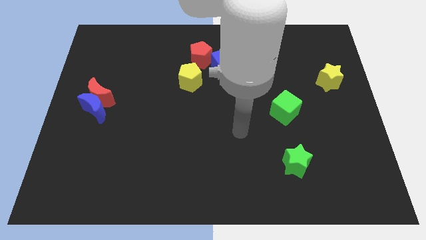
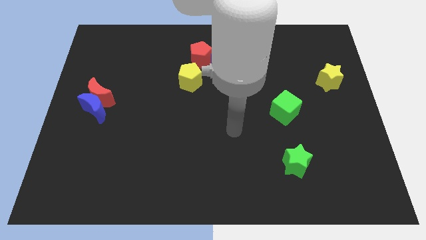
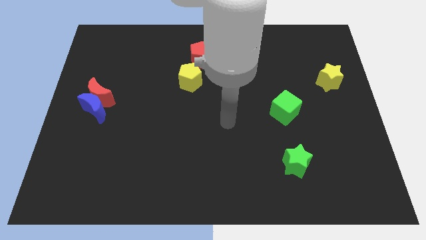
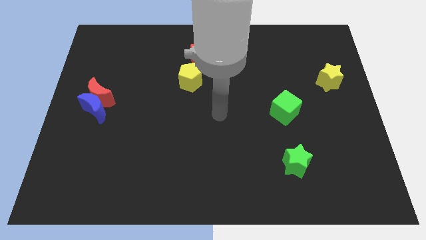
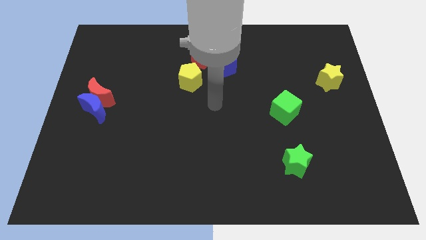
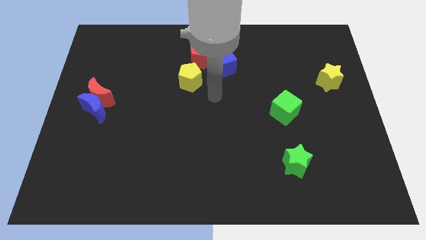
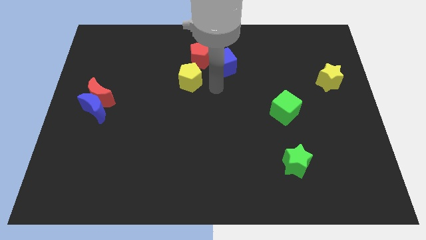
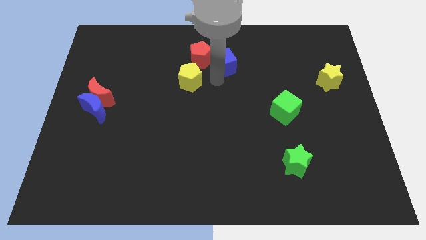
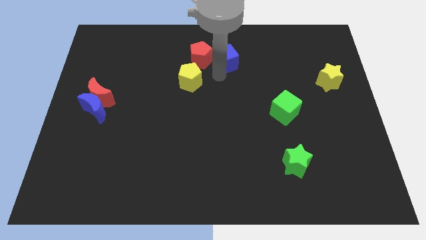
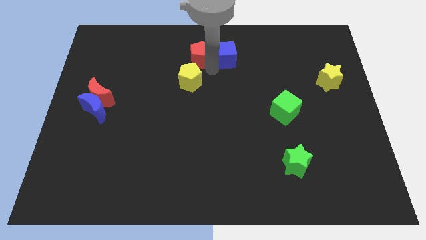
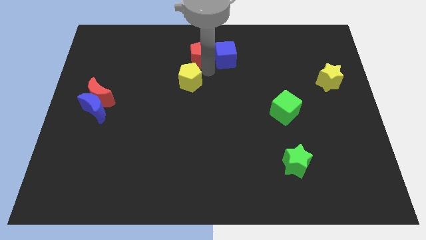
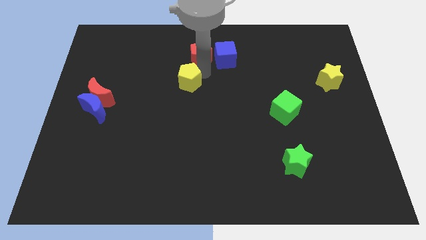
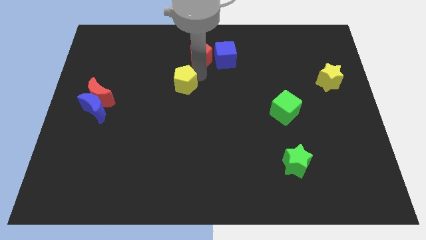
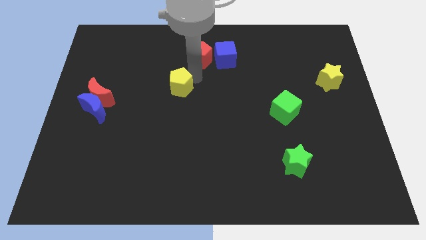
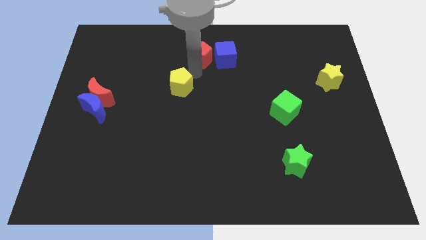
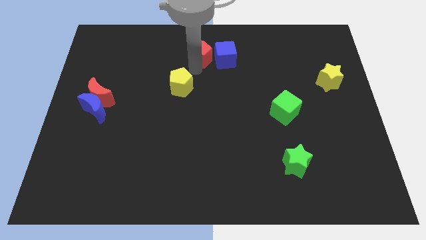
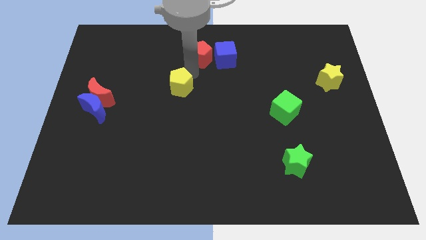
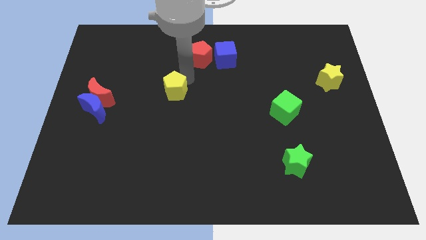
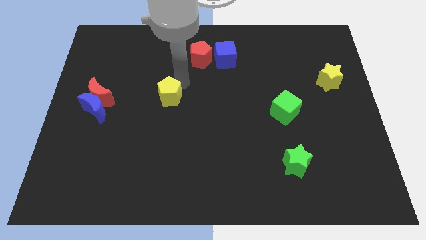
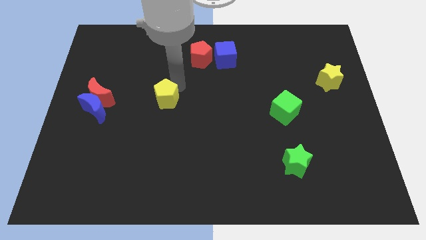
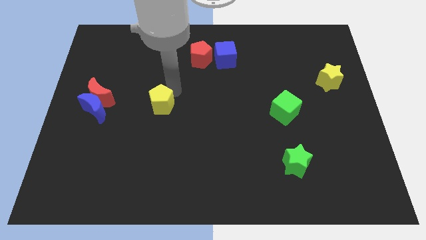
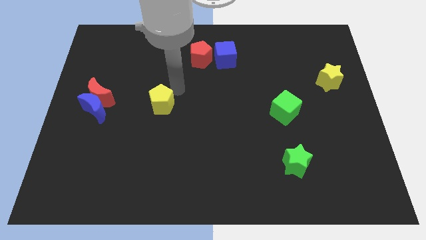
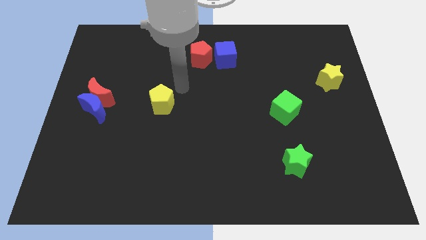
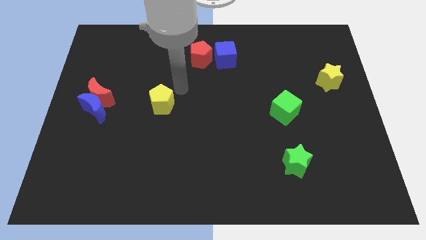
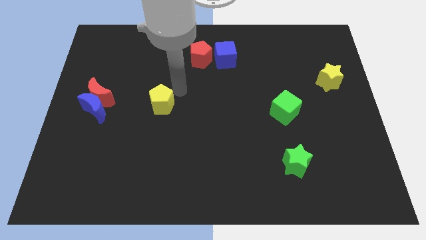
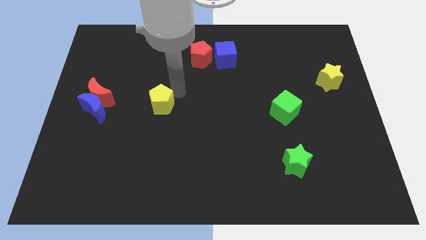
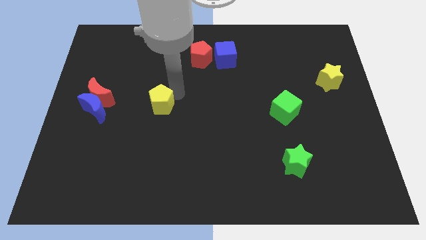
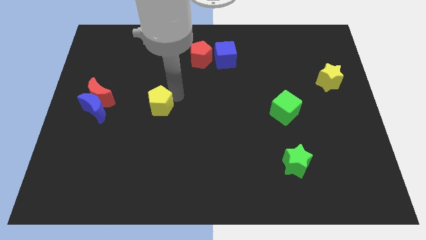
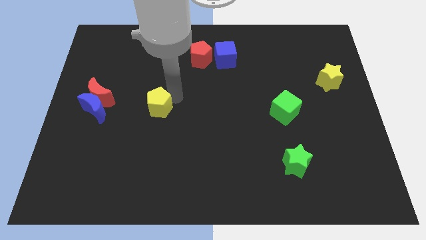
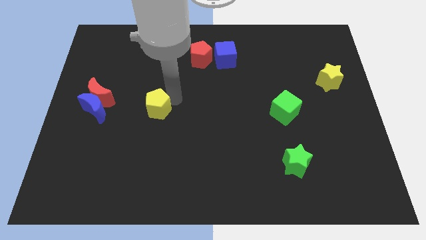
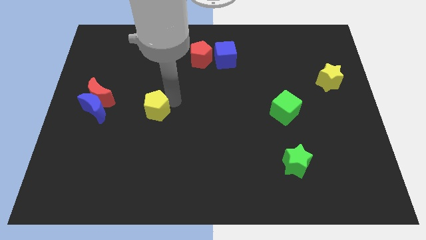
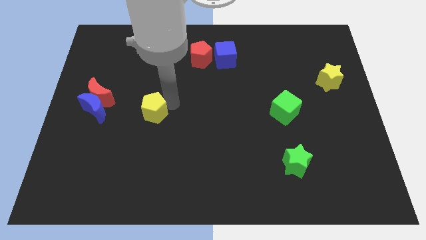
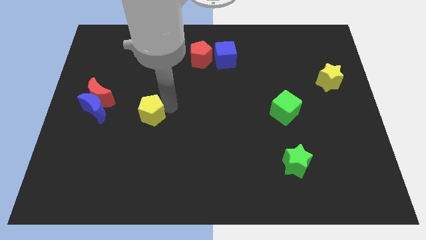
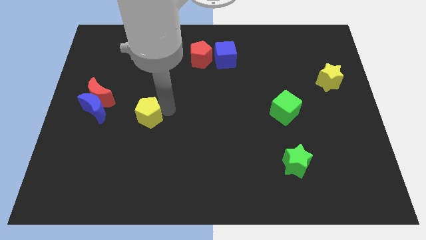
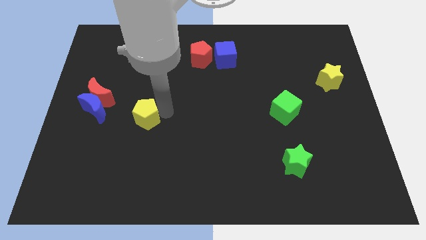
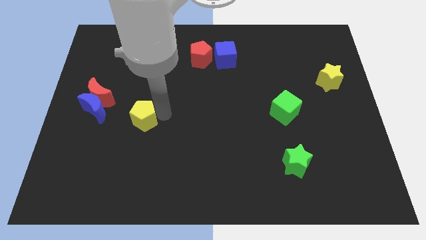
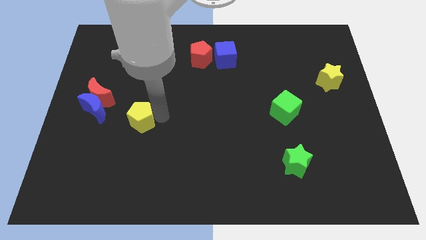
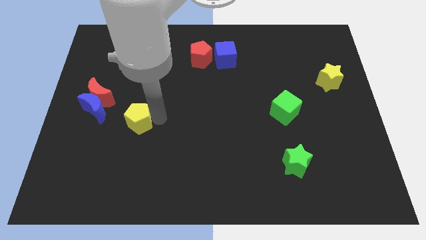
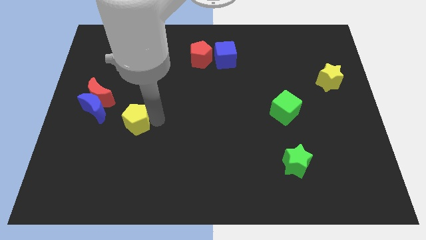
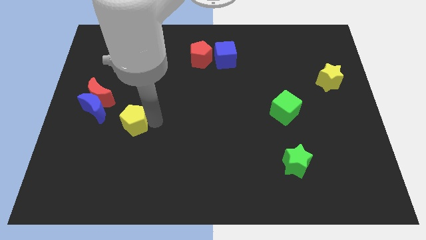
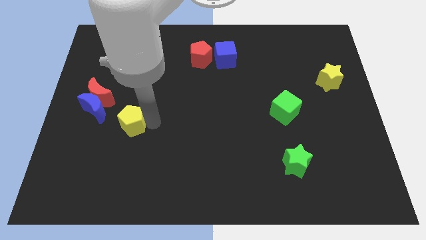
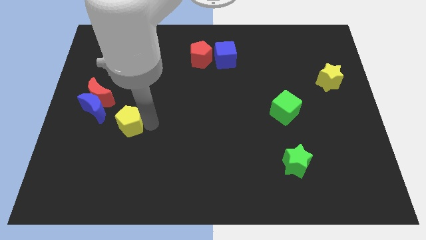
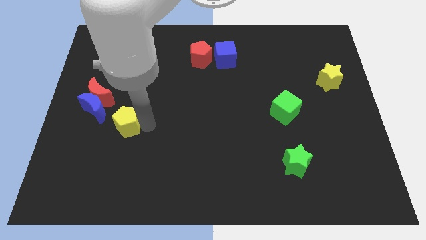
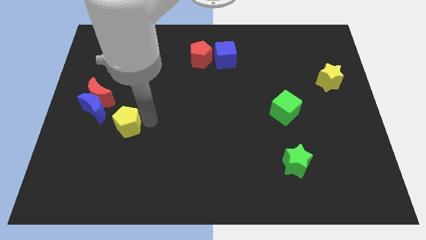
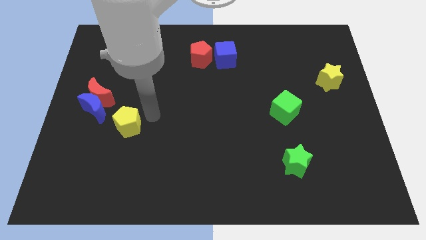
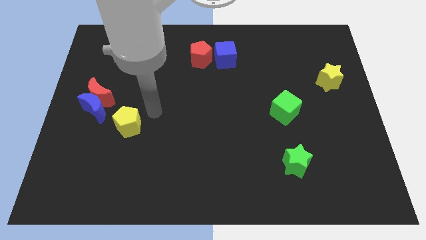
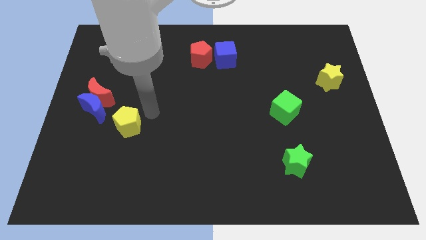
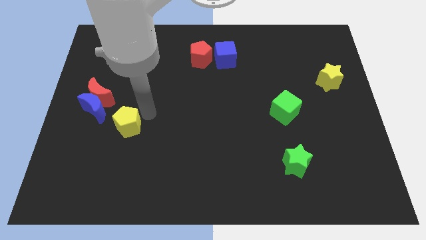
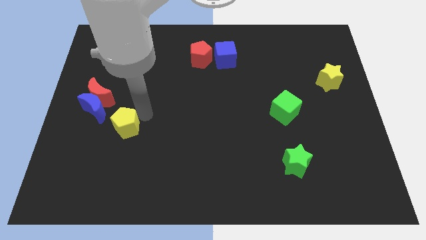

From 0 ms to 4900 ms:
move the yellow pentagon diagonally down and to the left

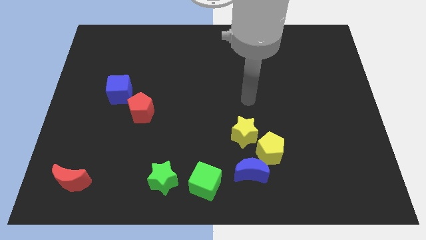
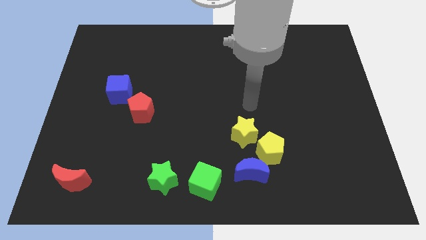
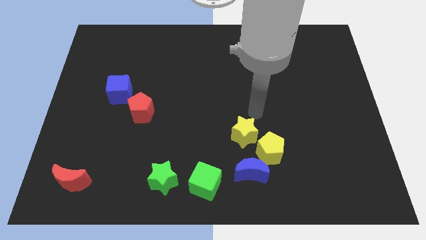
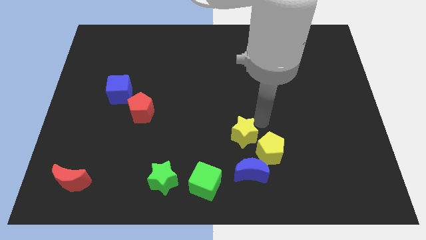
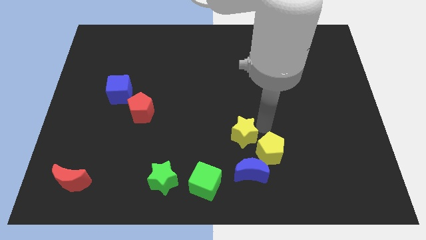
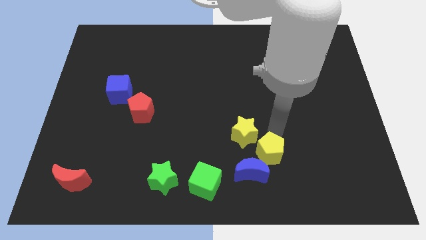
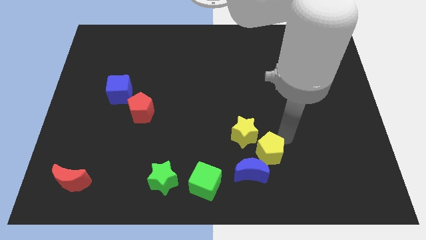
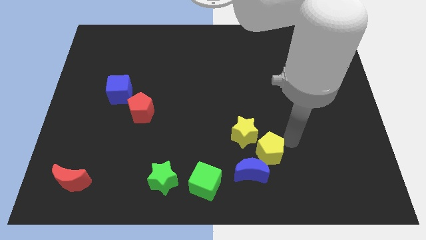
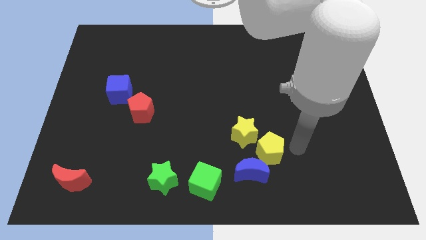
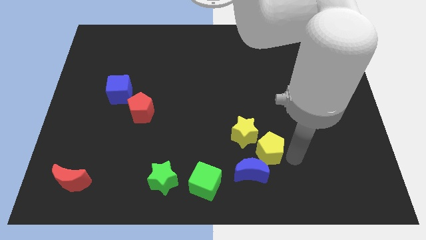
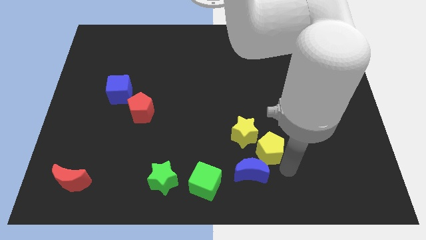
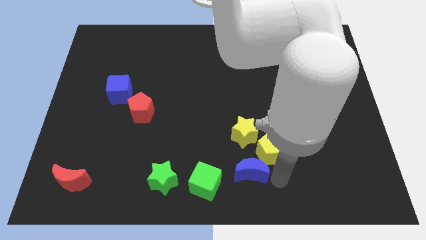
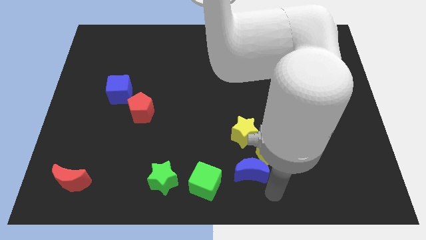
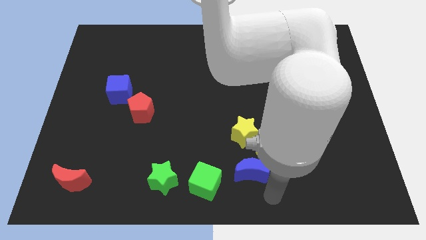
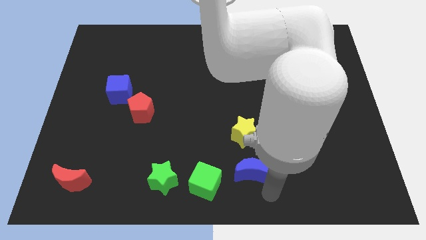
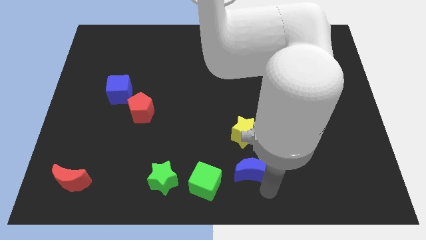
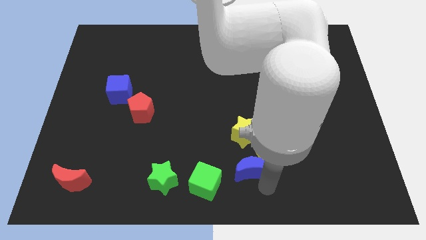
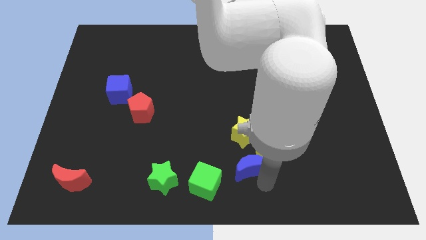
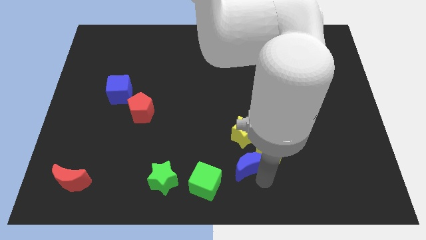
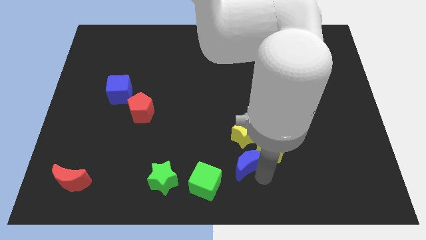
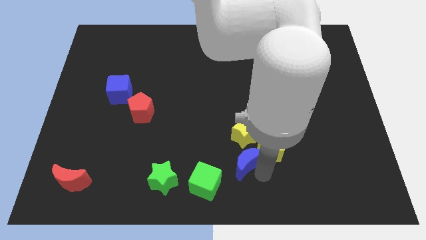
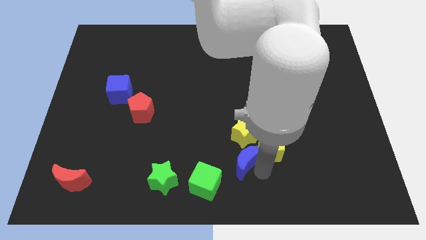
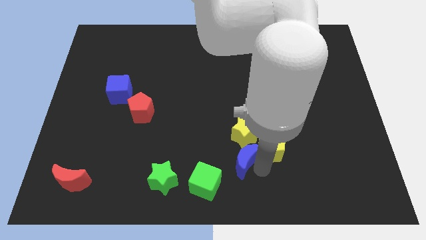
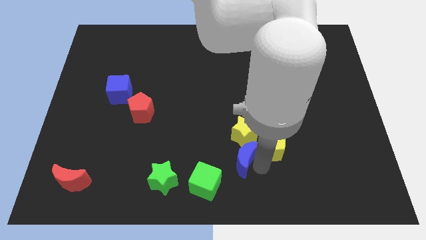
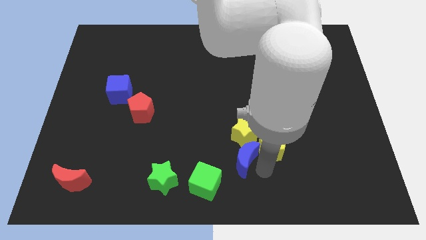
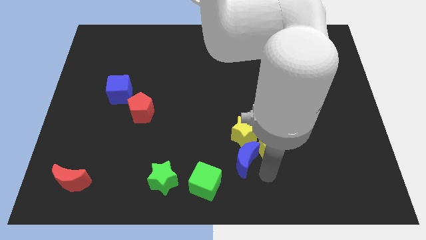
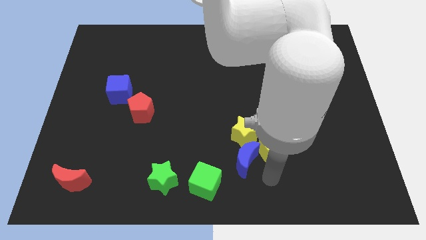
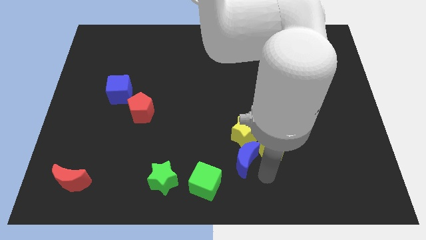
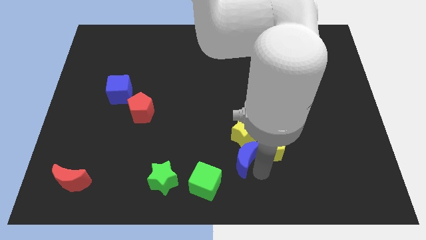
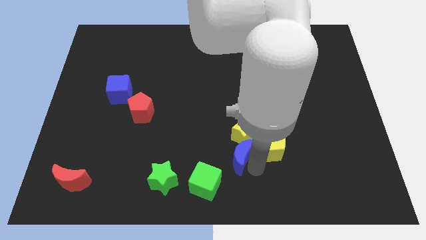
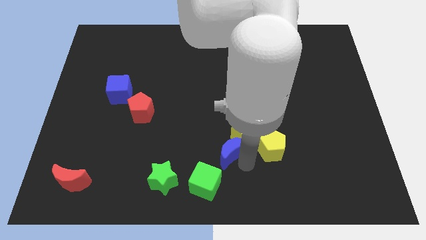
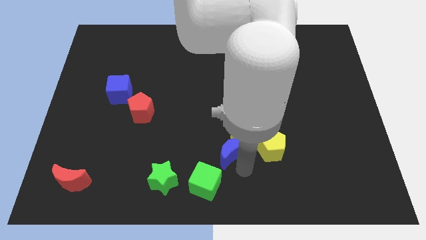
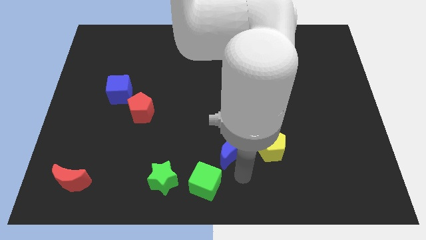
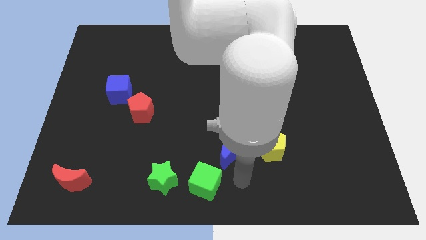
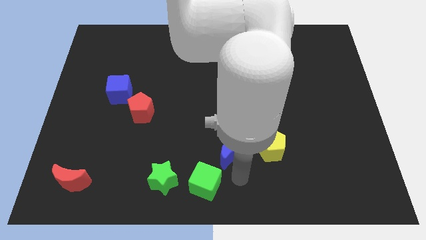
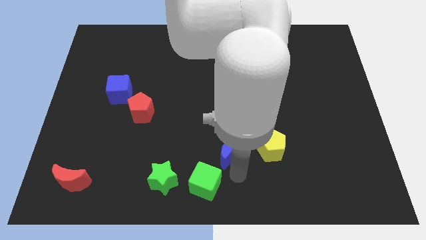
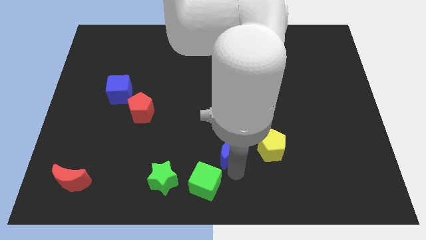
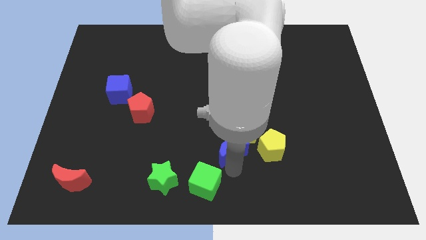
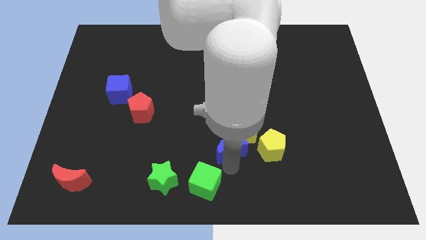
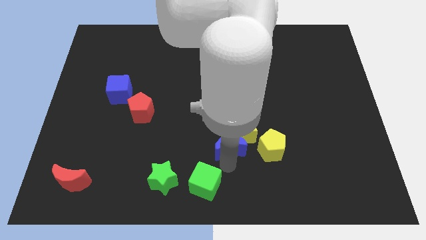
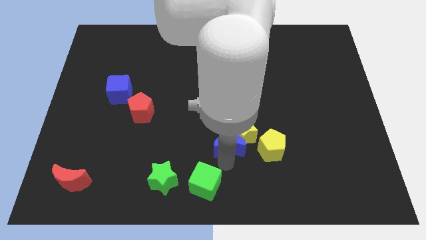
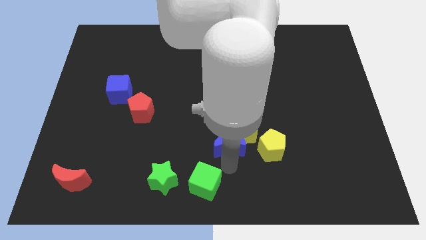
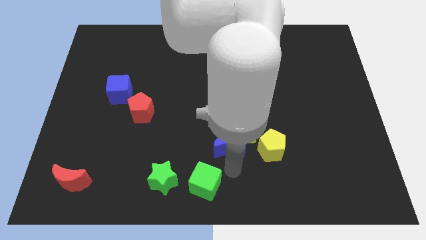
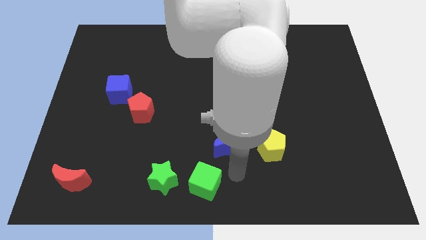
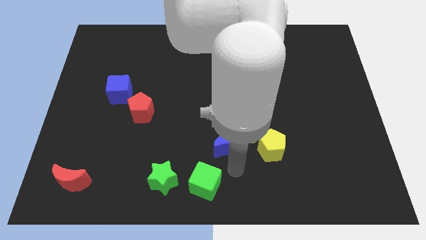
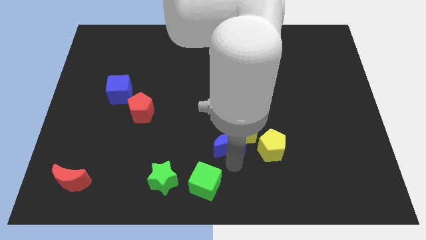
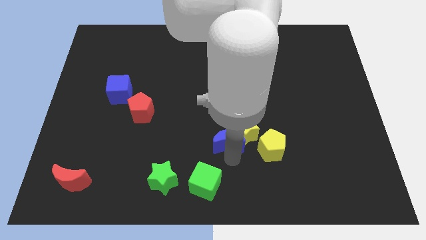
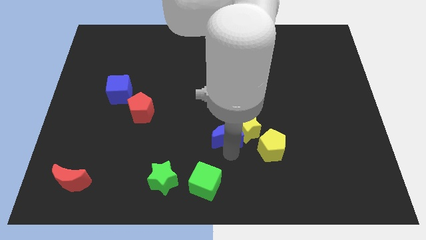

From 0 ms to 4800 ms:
slightly move the blue moon up
